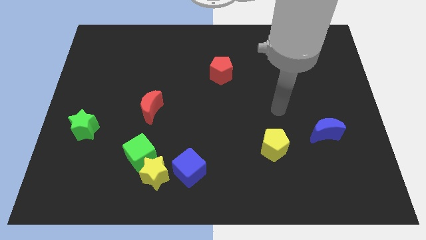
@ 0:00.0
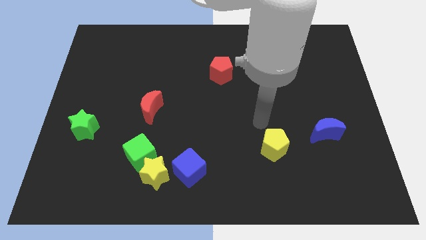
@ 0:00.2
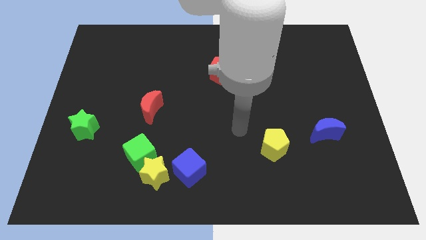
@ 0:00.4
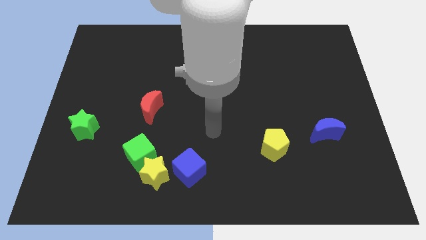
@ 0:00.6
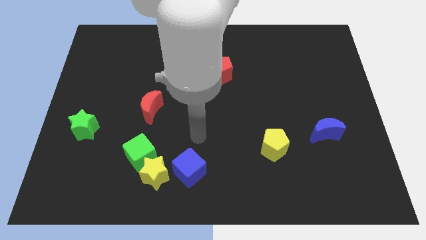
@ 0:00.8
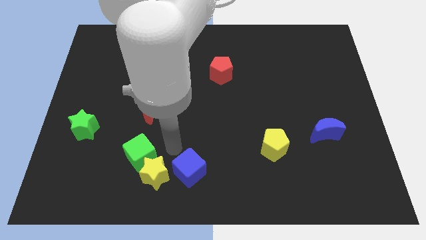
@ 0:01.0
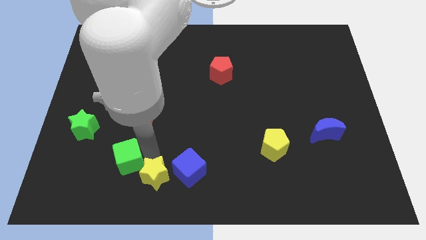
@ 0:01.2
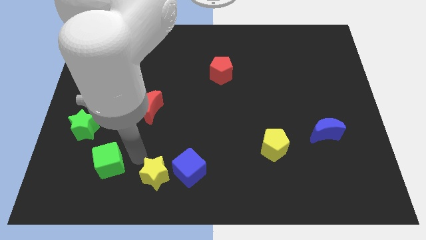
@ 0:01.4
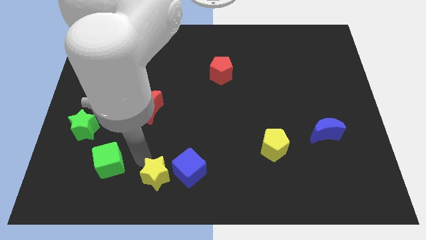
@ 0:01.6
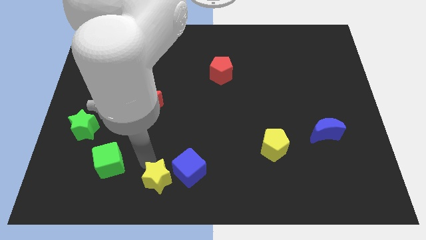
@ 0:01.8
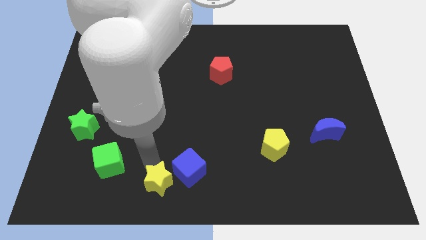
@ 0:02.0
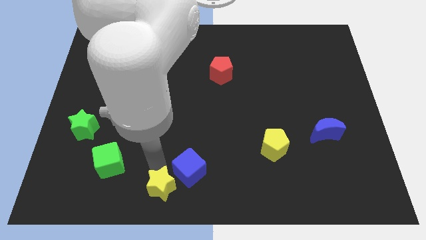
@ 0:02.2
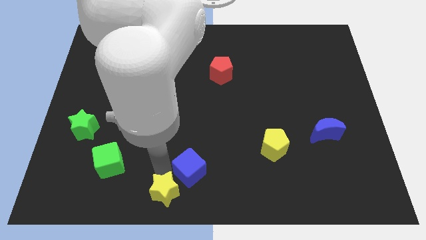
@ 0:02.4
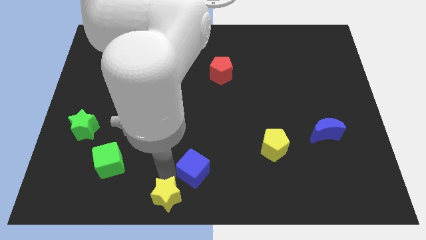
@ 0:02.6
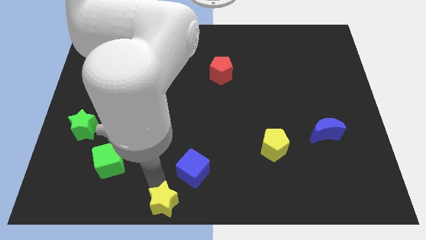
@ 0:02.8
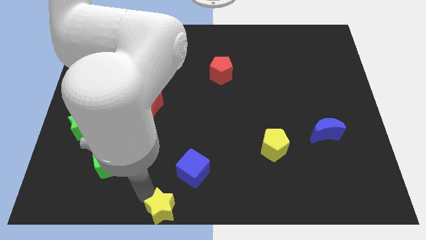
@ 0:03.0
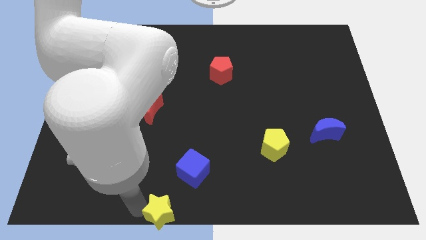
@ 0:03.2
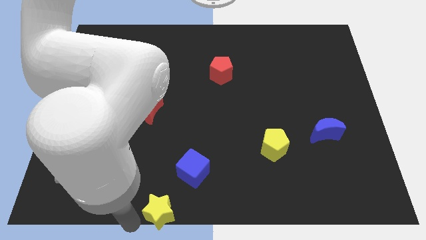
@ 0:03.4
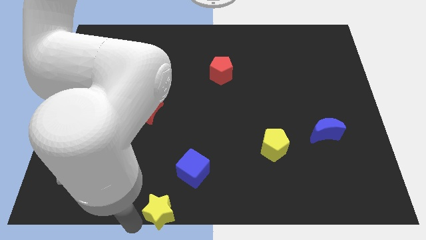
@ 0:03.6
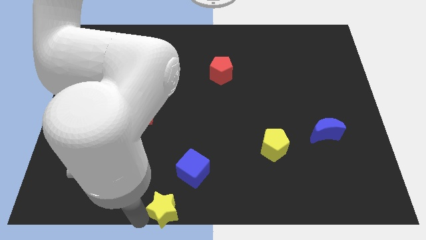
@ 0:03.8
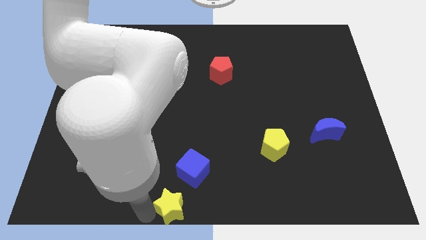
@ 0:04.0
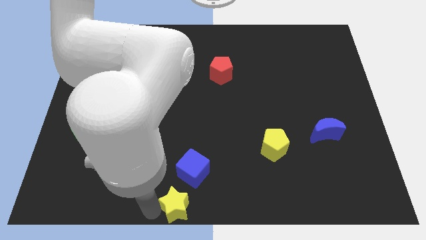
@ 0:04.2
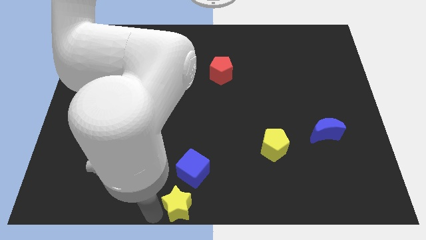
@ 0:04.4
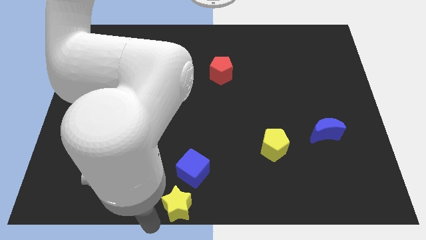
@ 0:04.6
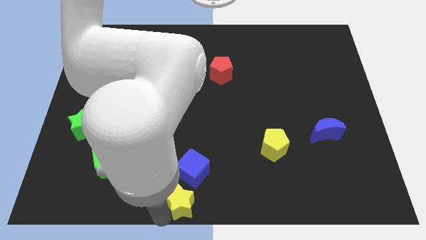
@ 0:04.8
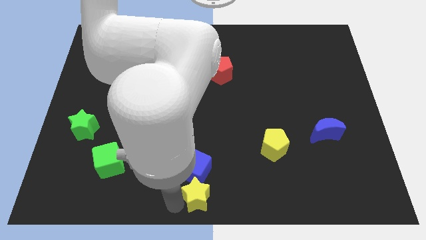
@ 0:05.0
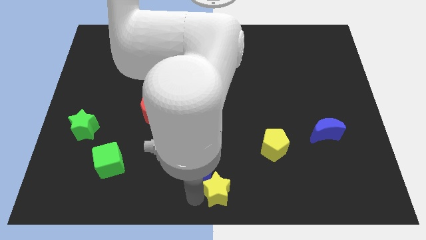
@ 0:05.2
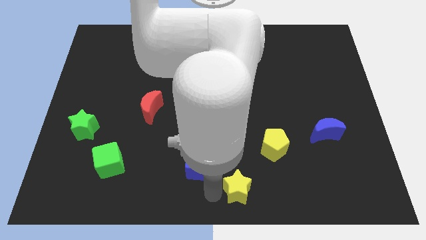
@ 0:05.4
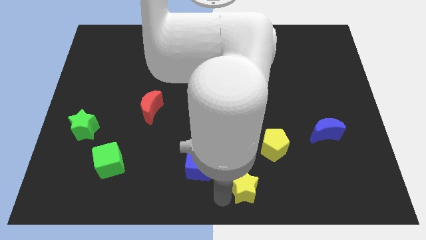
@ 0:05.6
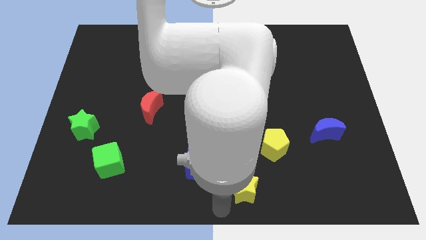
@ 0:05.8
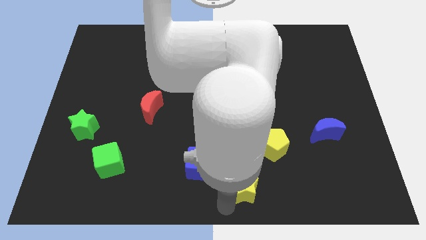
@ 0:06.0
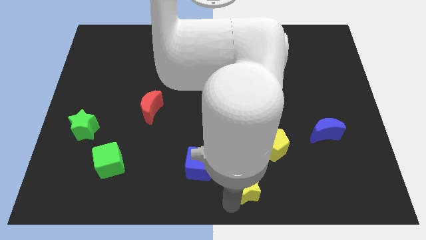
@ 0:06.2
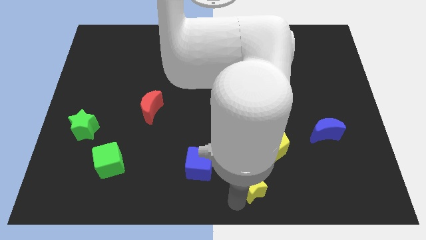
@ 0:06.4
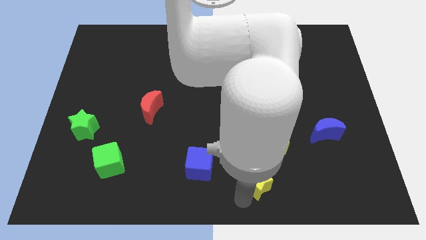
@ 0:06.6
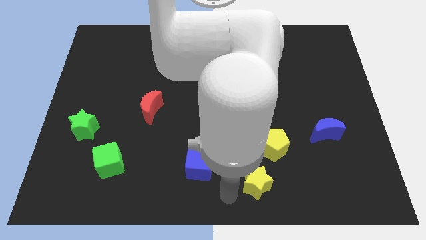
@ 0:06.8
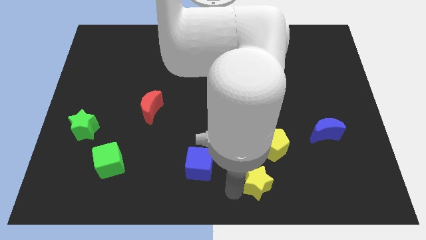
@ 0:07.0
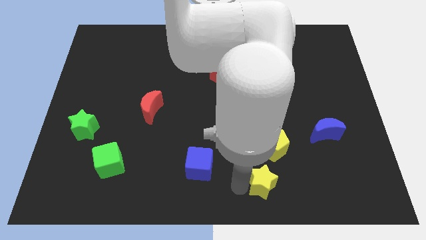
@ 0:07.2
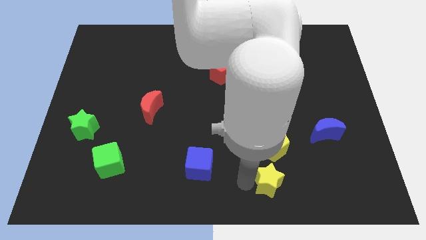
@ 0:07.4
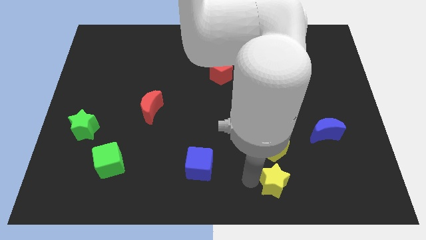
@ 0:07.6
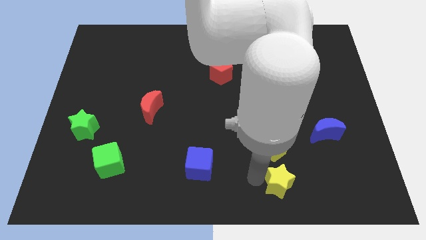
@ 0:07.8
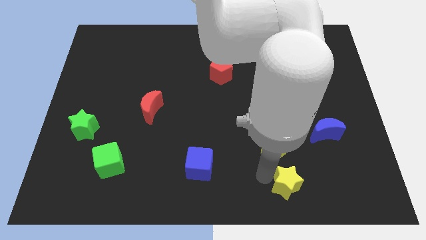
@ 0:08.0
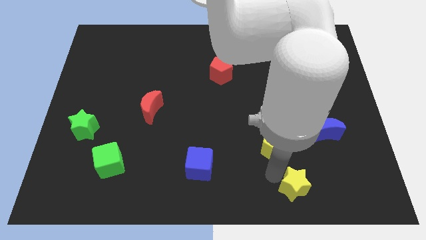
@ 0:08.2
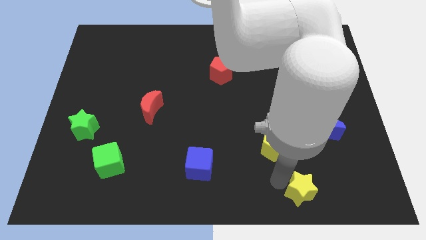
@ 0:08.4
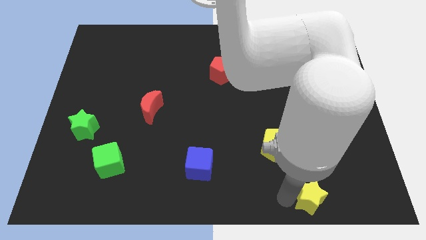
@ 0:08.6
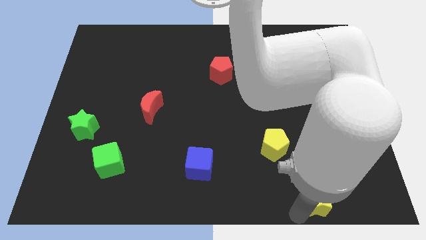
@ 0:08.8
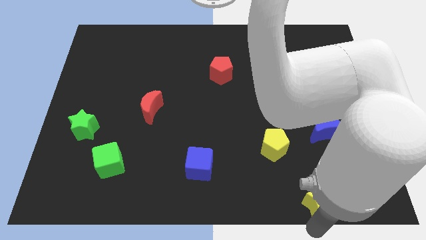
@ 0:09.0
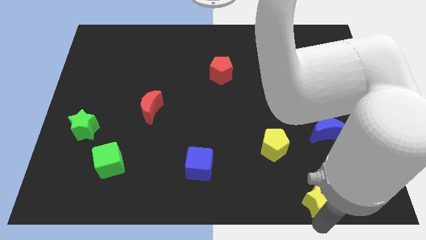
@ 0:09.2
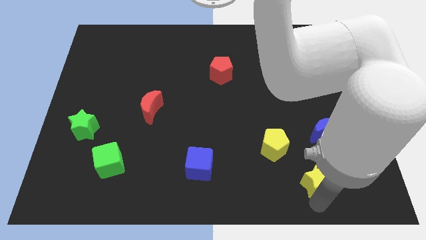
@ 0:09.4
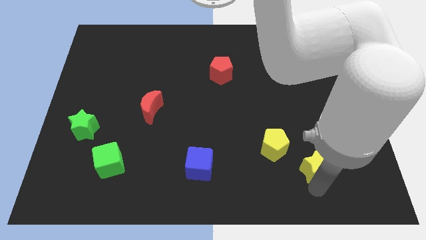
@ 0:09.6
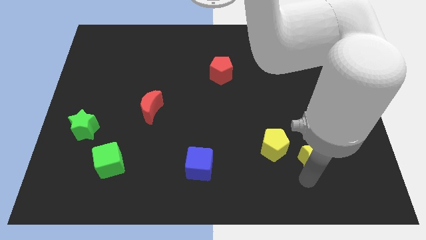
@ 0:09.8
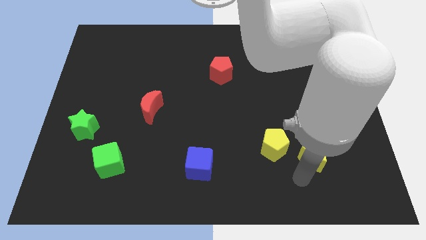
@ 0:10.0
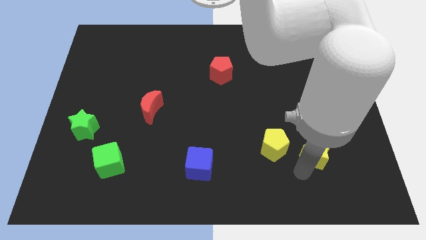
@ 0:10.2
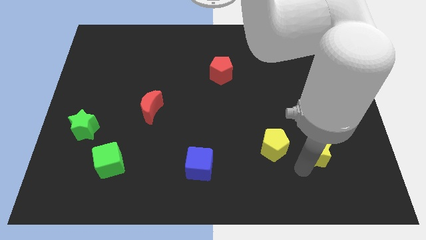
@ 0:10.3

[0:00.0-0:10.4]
put the yellow star close to the blue moon

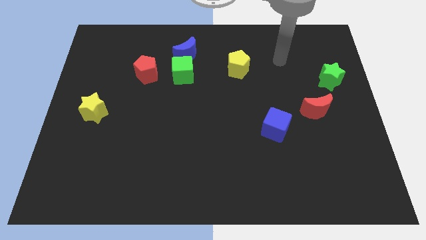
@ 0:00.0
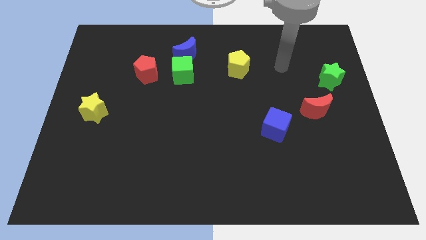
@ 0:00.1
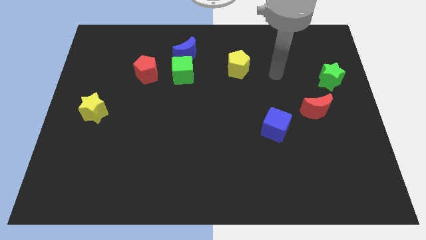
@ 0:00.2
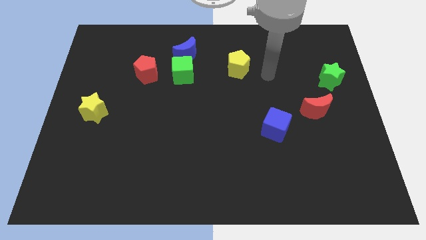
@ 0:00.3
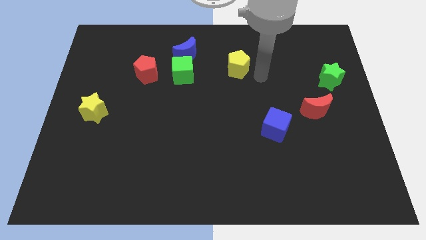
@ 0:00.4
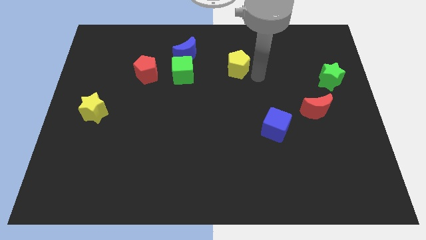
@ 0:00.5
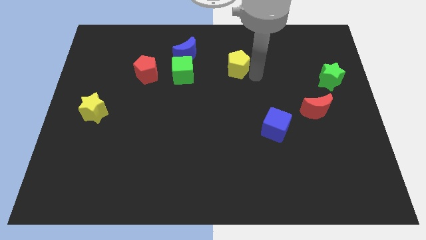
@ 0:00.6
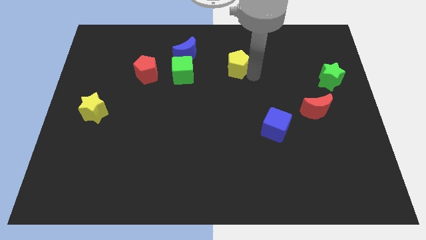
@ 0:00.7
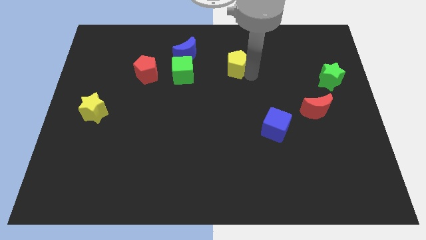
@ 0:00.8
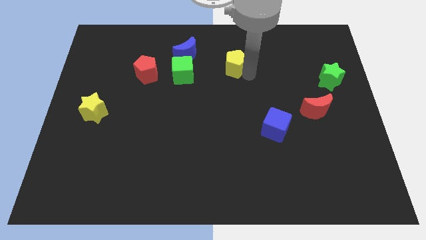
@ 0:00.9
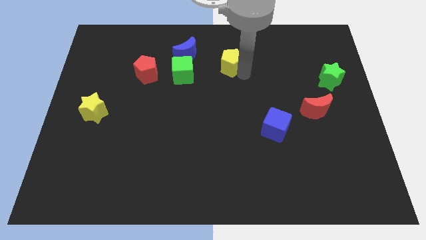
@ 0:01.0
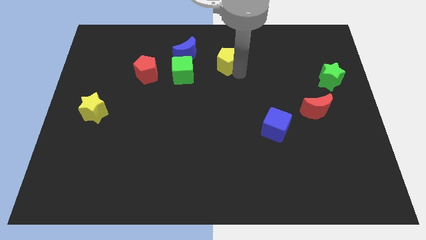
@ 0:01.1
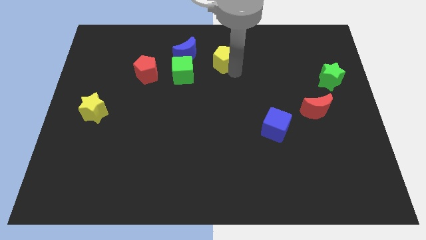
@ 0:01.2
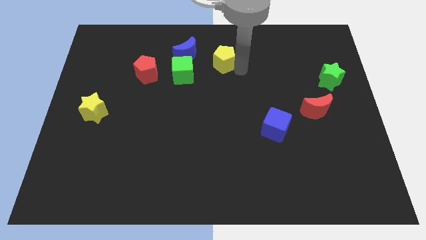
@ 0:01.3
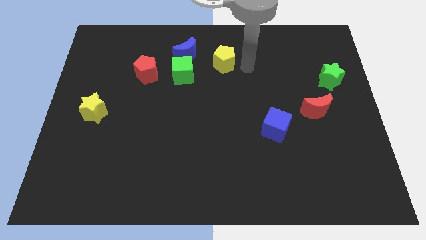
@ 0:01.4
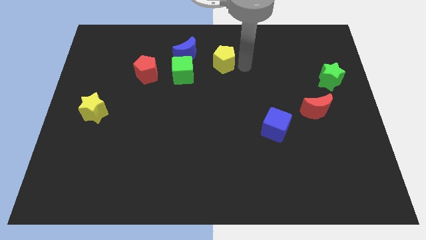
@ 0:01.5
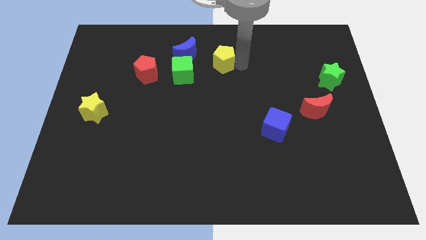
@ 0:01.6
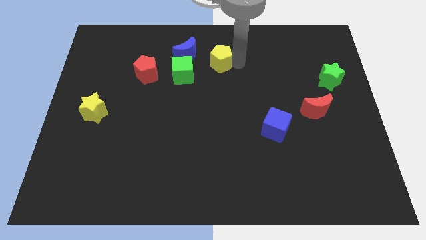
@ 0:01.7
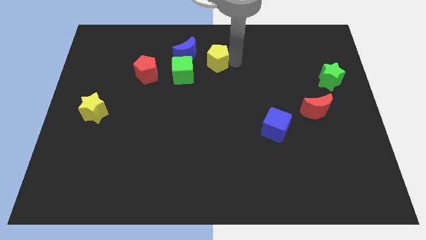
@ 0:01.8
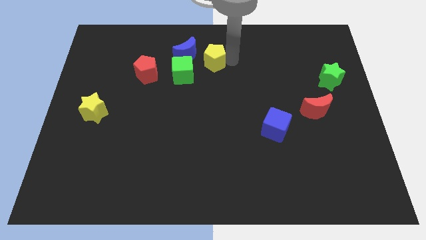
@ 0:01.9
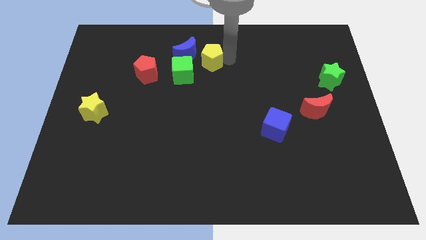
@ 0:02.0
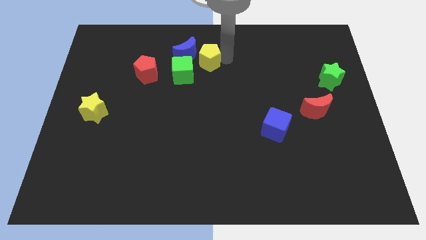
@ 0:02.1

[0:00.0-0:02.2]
move the yellow pentagon towards the blue moon
